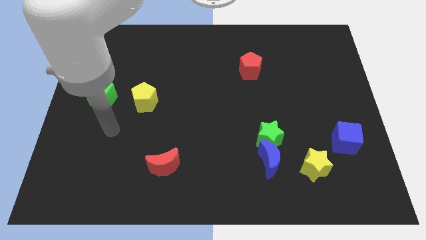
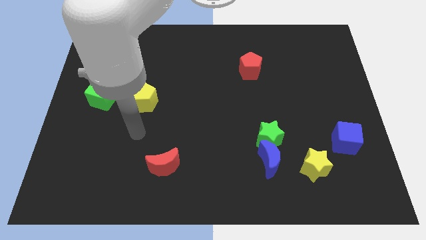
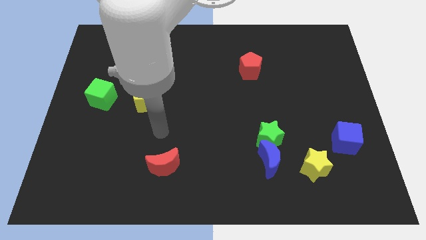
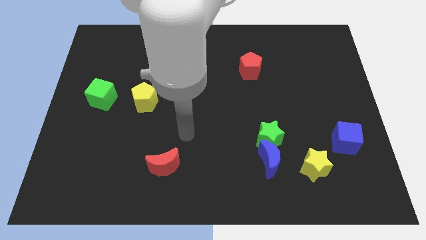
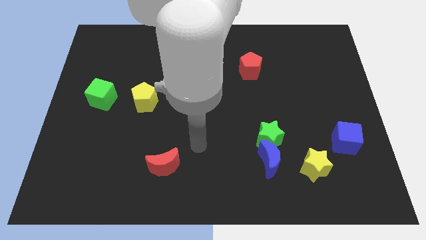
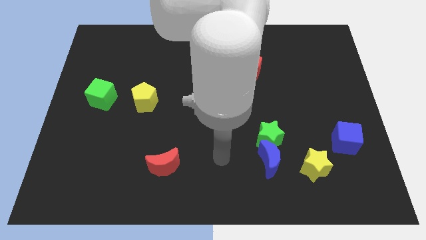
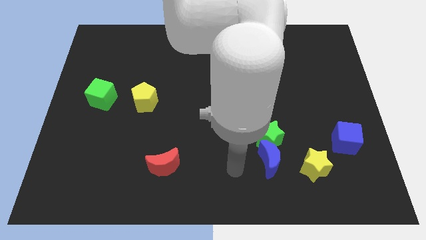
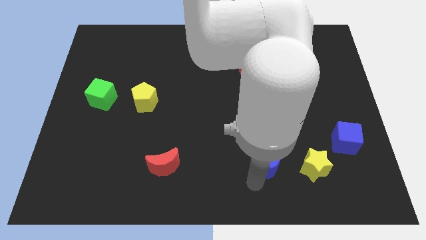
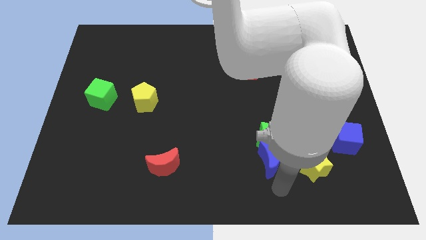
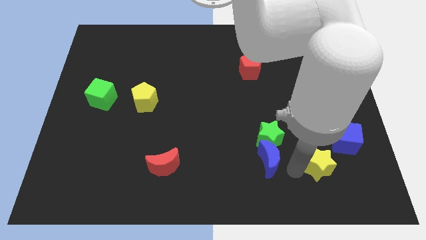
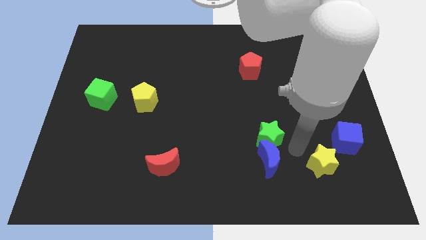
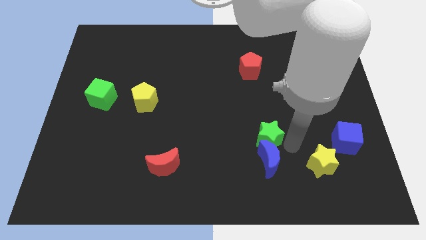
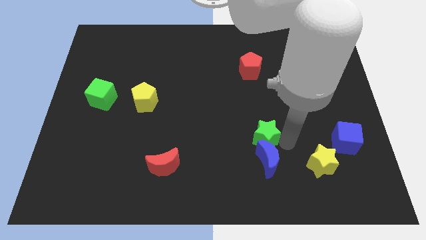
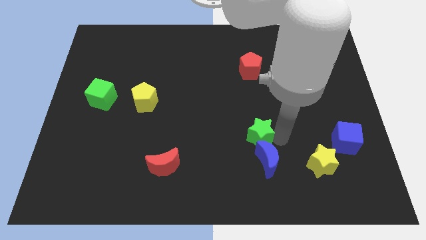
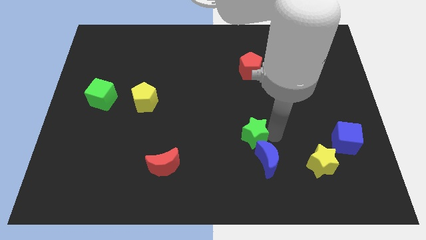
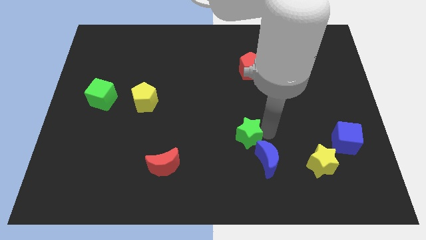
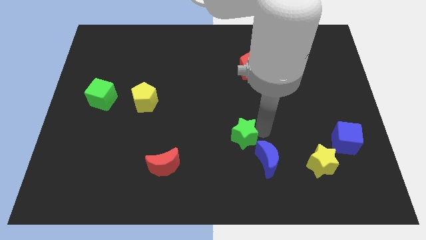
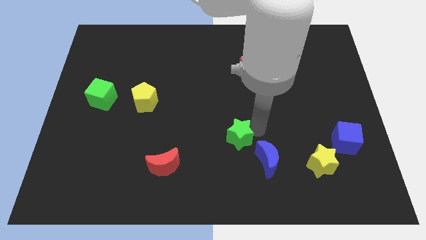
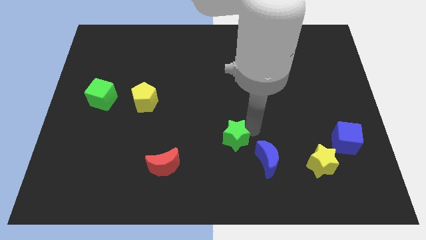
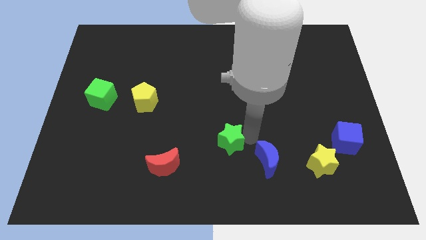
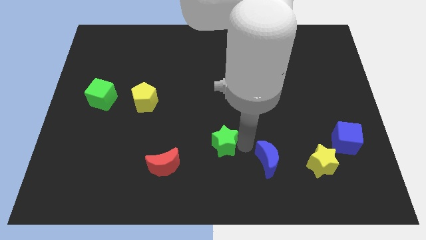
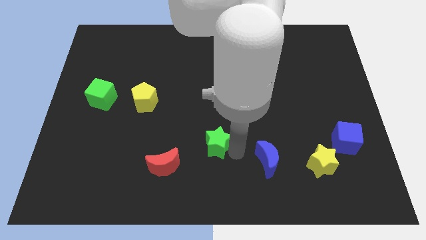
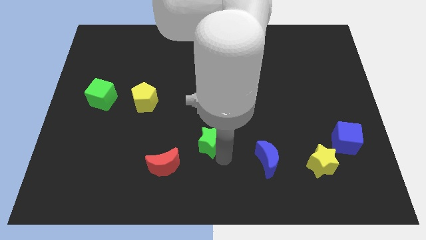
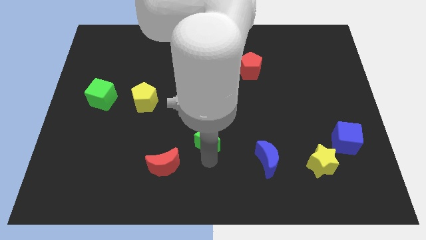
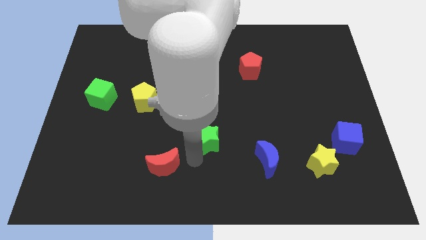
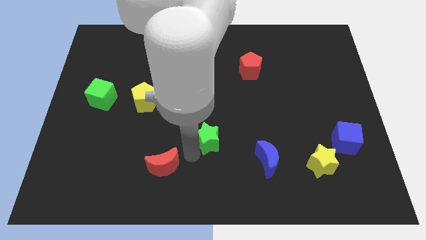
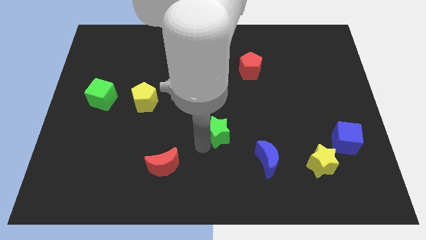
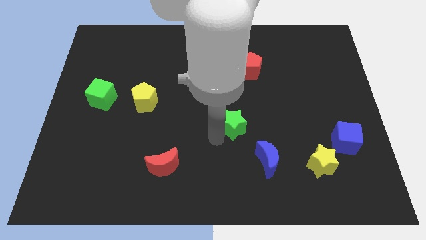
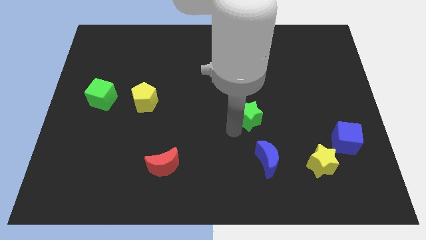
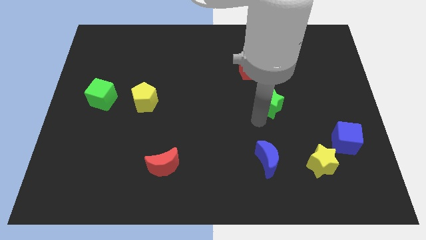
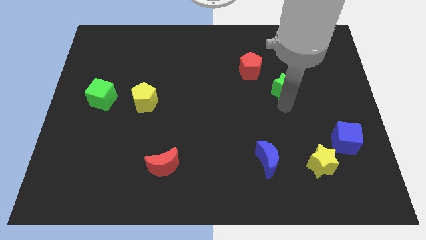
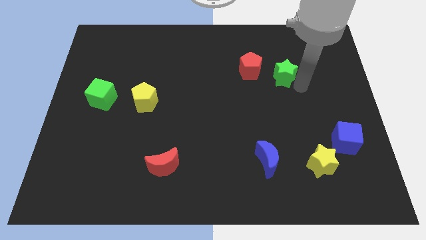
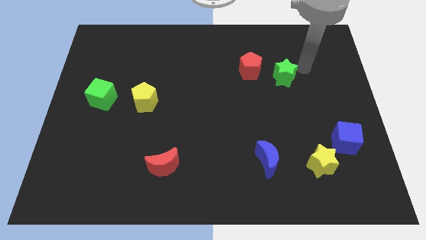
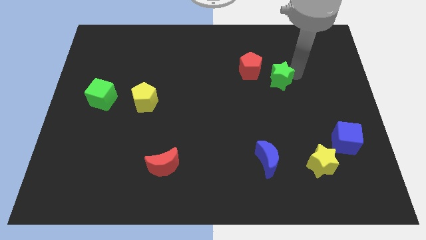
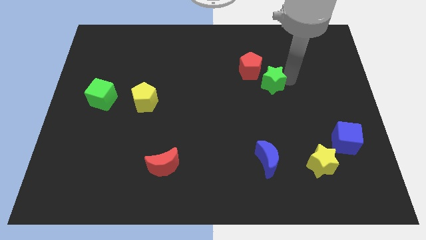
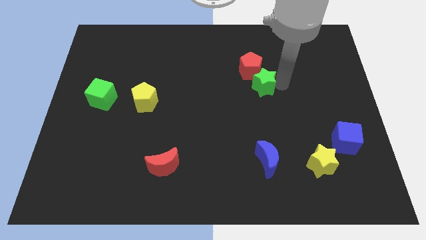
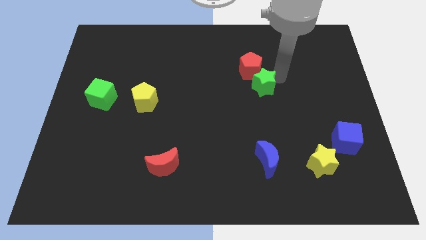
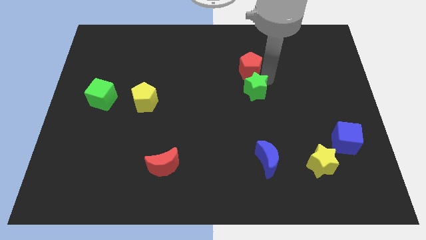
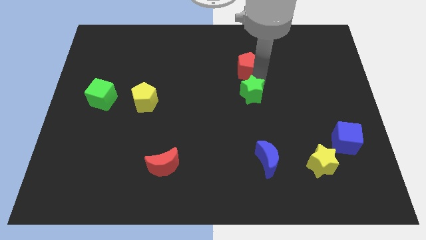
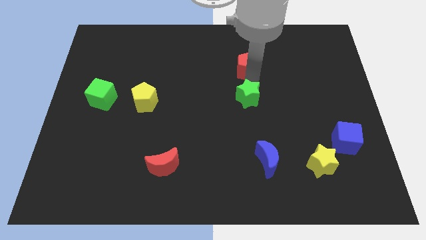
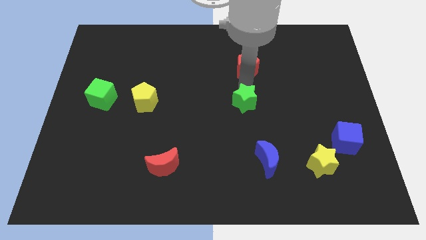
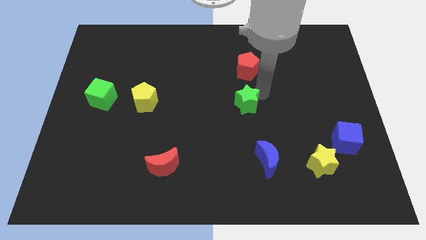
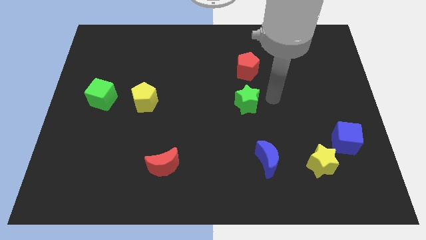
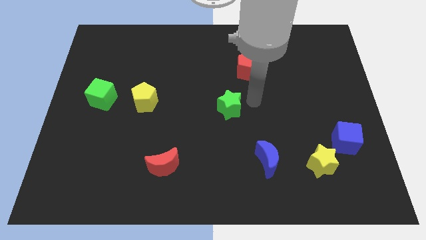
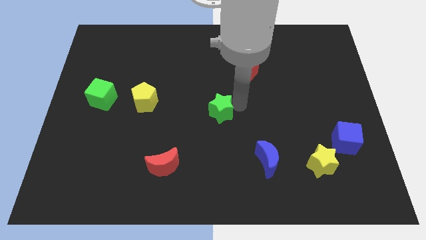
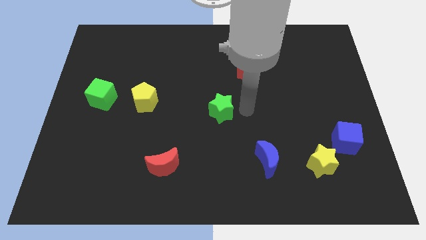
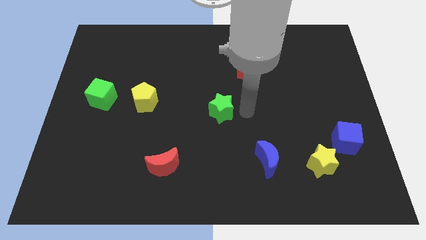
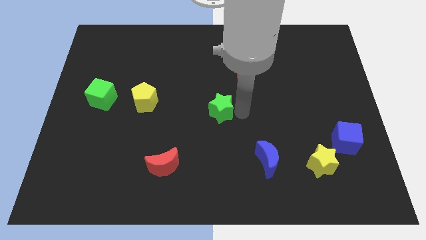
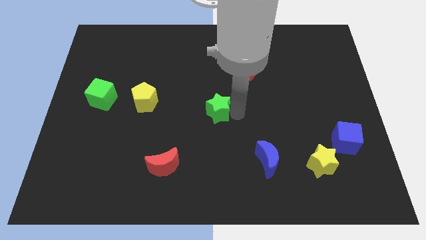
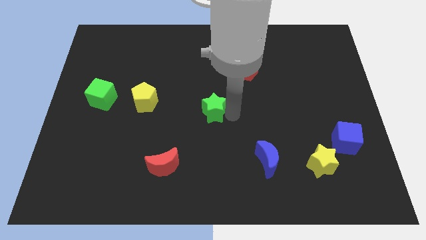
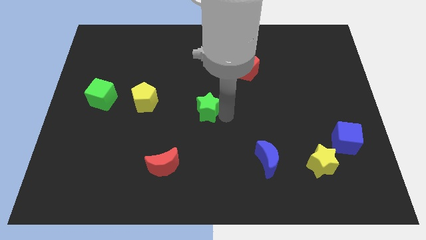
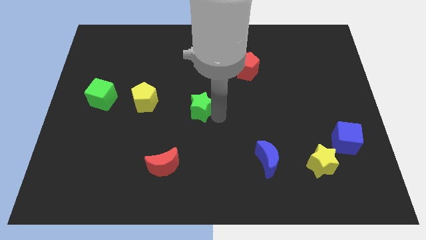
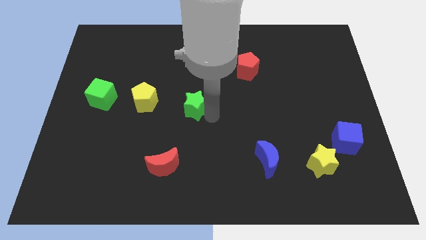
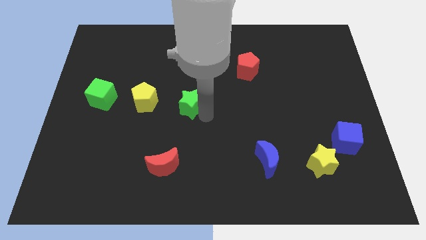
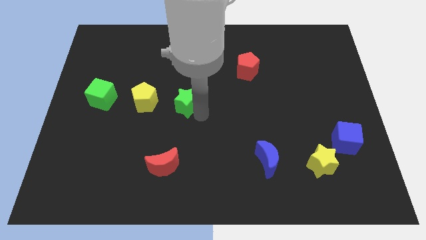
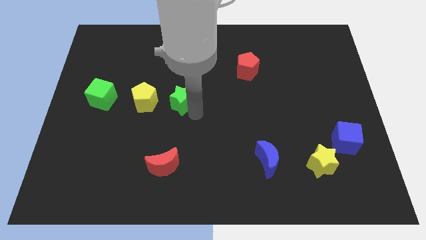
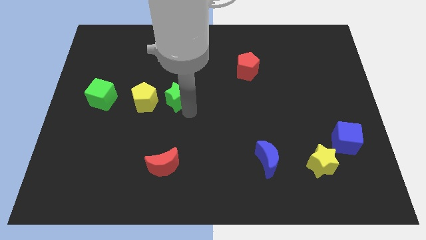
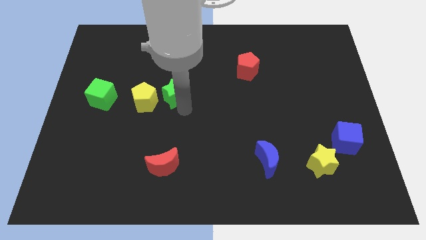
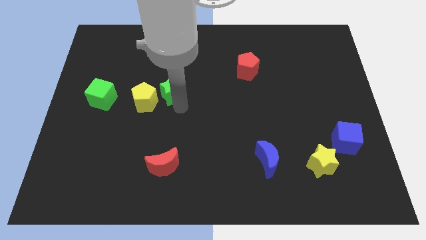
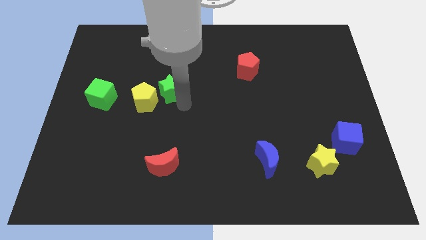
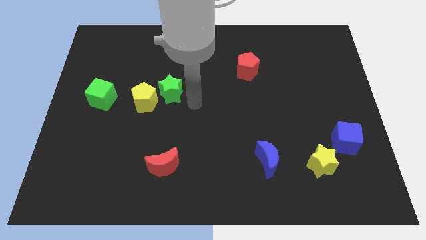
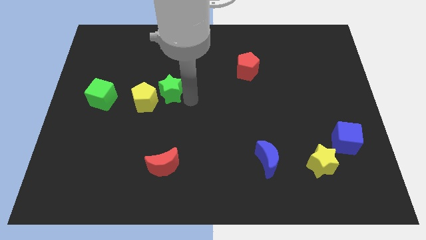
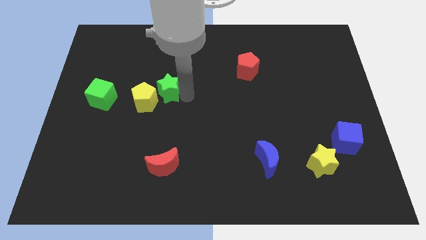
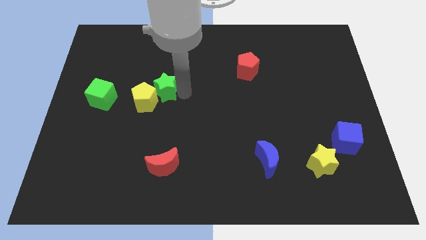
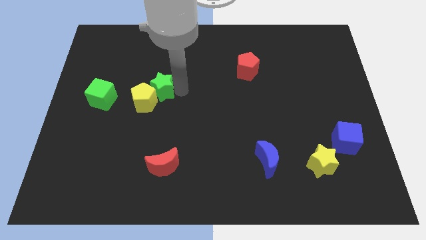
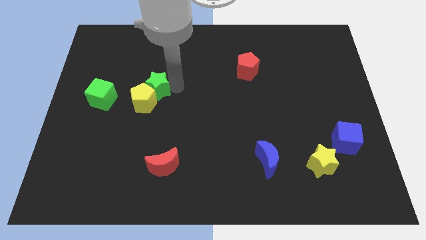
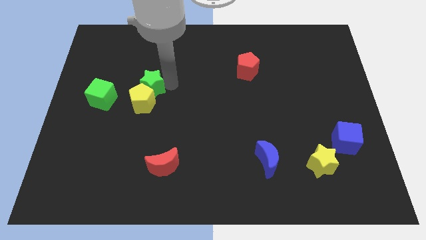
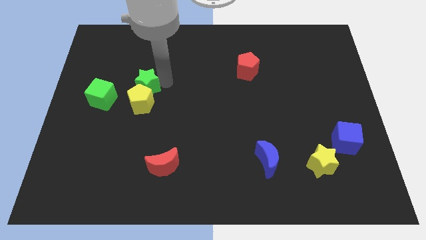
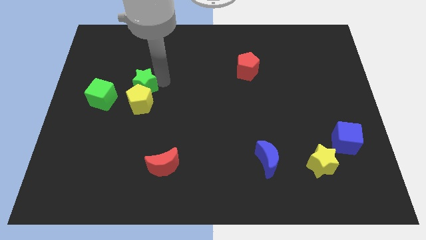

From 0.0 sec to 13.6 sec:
move the green star diagonally up and to the right of the green cube
